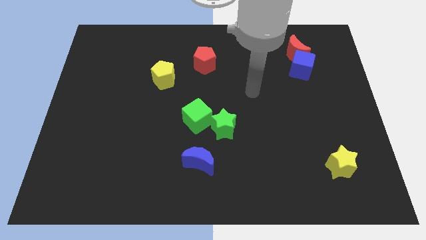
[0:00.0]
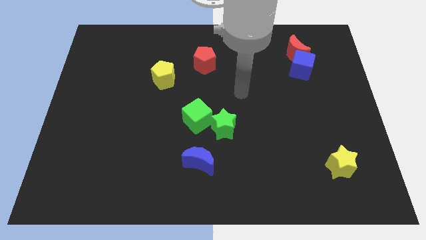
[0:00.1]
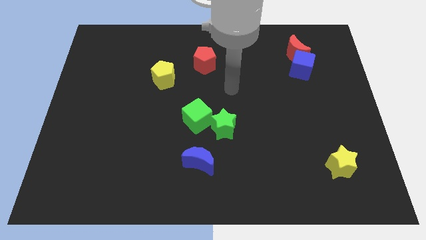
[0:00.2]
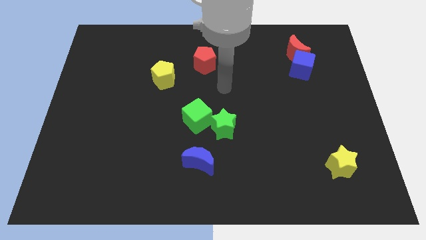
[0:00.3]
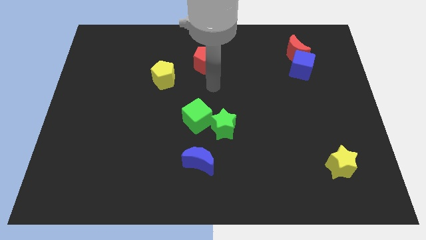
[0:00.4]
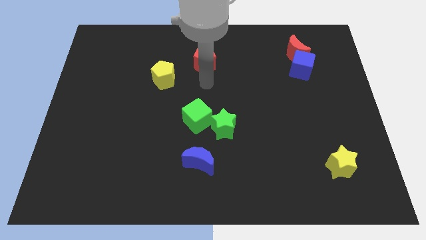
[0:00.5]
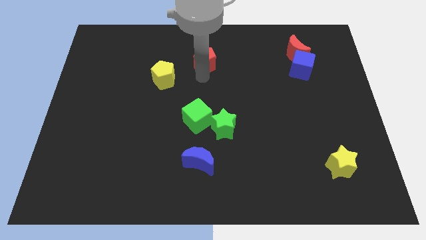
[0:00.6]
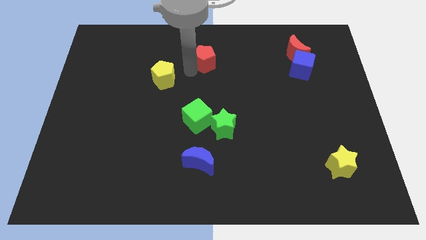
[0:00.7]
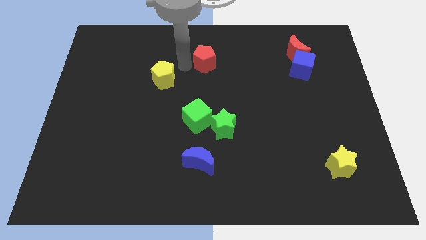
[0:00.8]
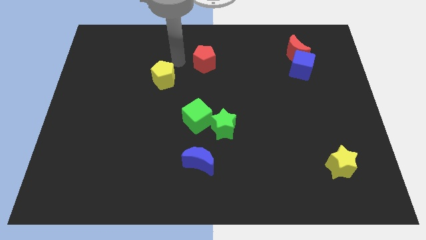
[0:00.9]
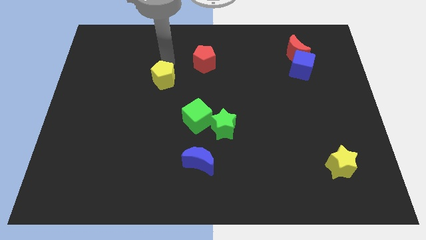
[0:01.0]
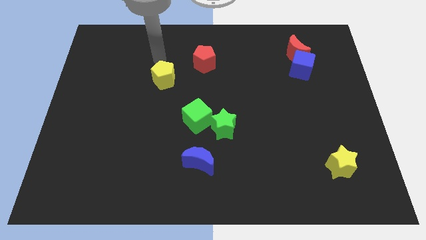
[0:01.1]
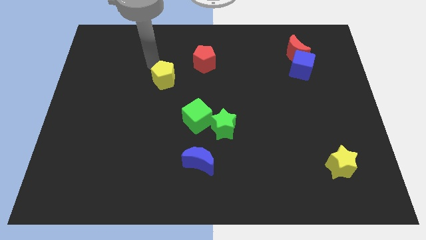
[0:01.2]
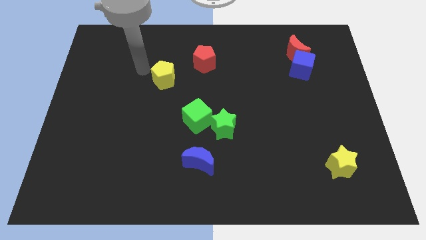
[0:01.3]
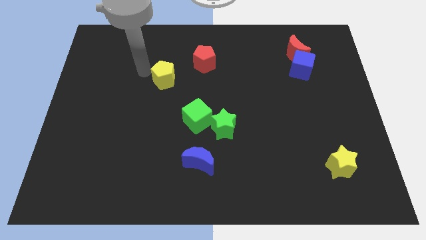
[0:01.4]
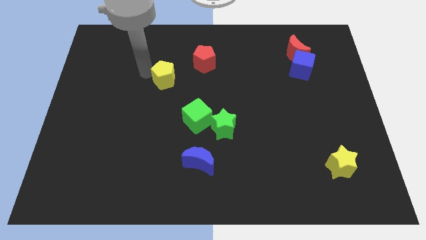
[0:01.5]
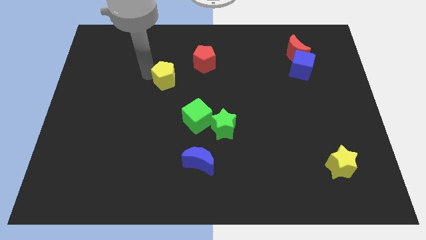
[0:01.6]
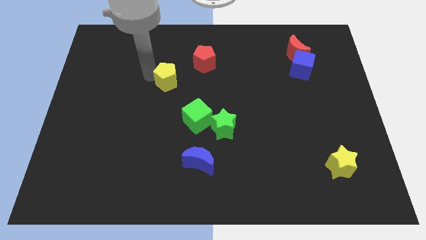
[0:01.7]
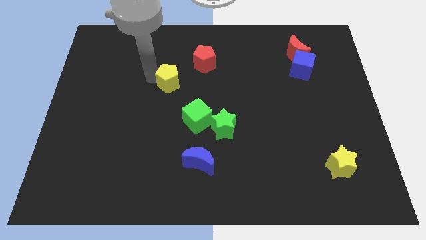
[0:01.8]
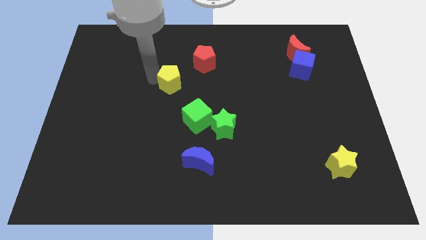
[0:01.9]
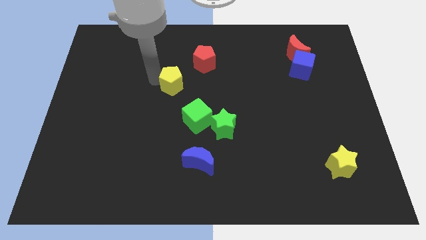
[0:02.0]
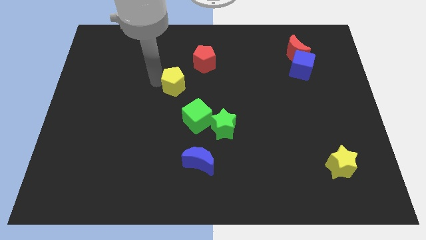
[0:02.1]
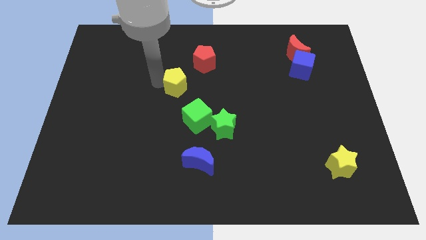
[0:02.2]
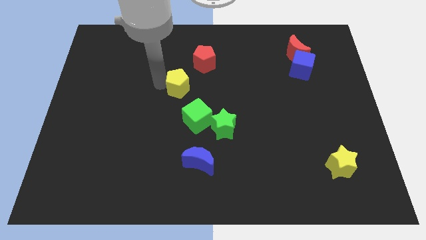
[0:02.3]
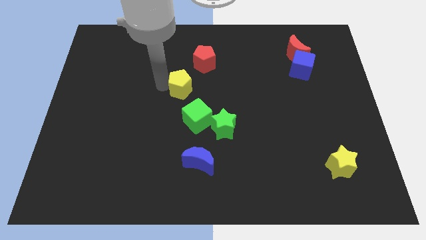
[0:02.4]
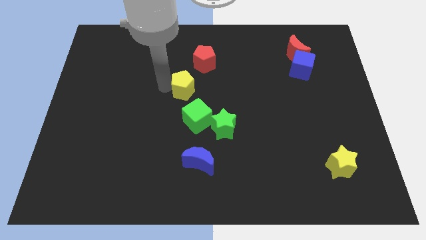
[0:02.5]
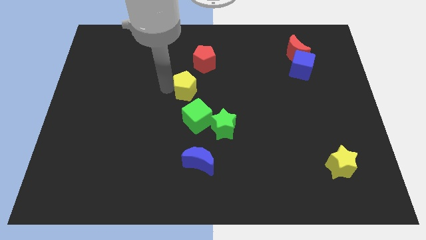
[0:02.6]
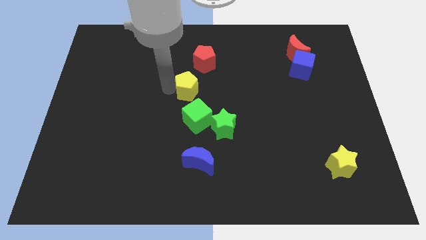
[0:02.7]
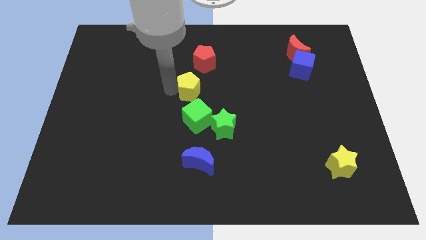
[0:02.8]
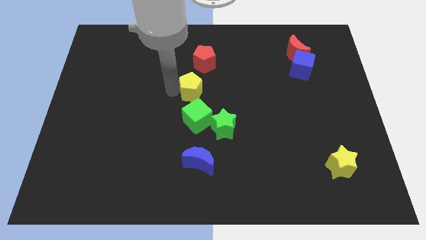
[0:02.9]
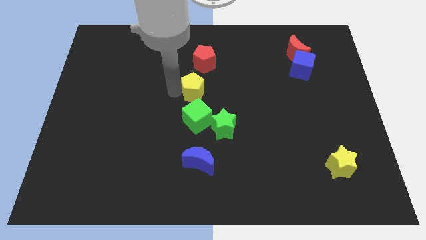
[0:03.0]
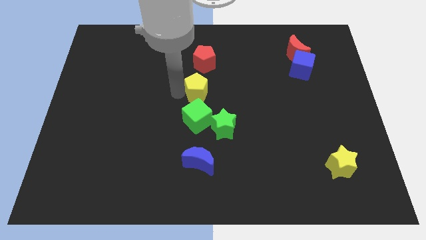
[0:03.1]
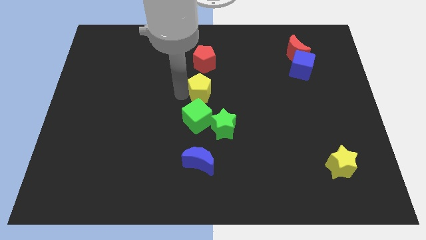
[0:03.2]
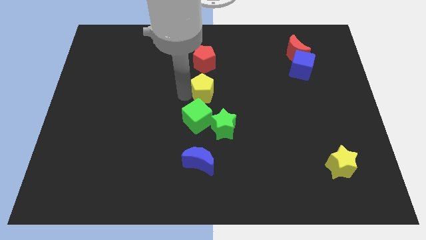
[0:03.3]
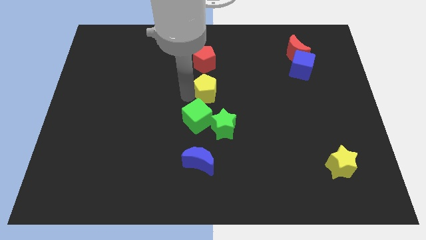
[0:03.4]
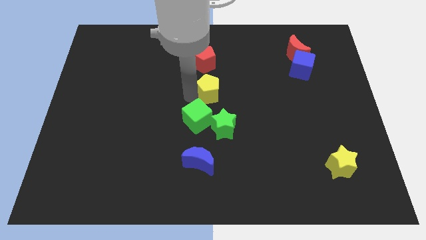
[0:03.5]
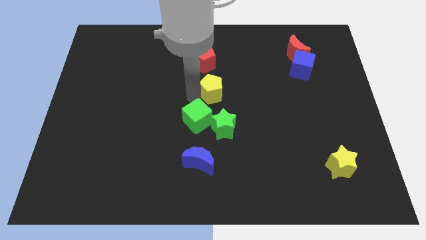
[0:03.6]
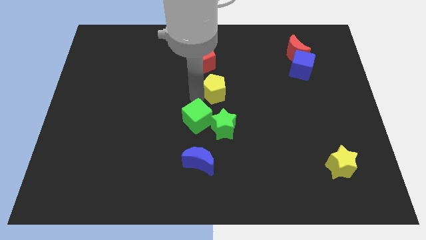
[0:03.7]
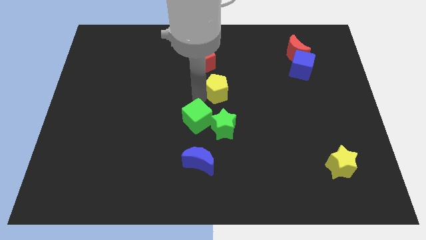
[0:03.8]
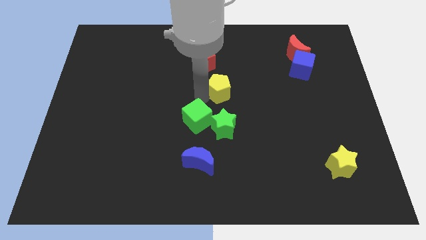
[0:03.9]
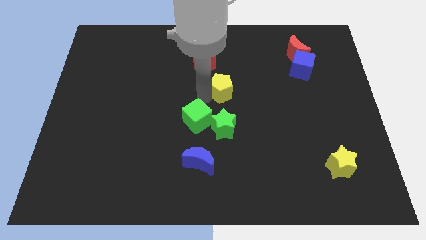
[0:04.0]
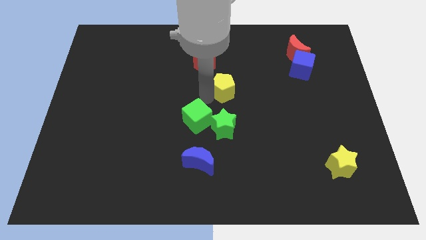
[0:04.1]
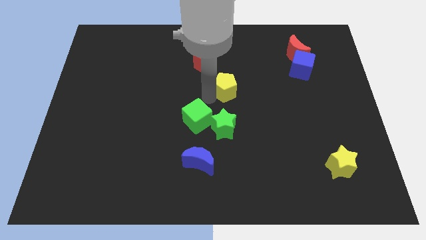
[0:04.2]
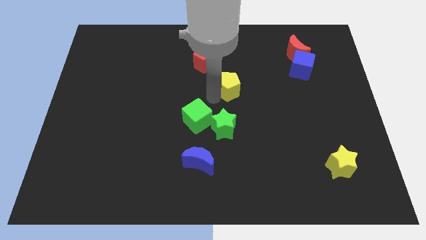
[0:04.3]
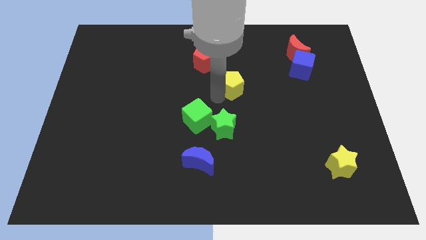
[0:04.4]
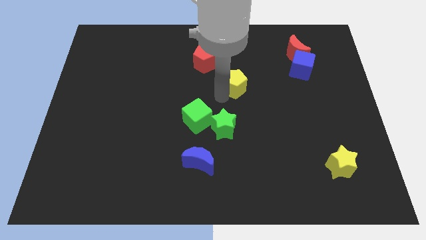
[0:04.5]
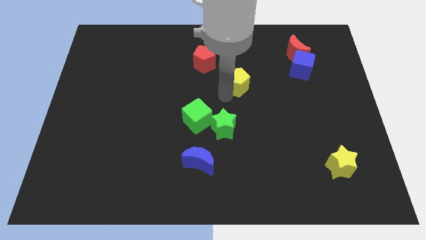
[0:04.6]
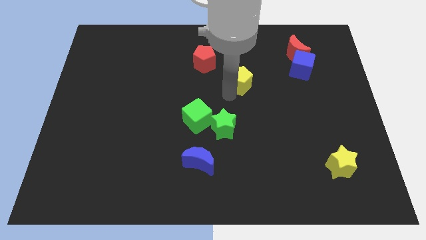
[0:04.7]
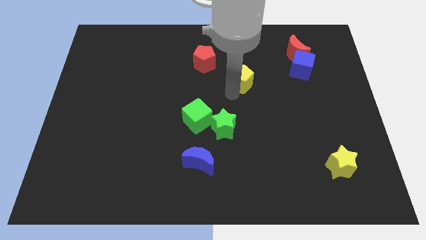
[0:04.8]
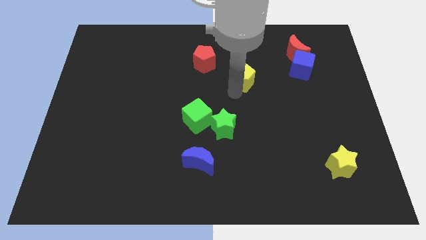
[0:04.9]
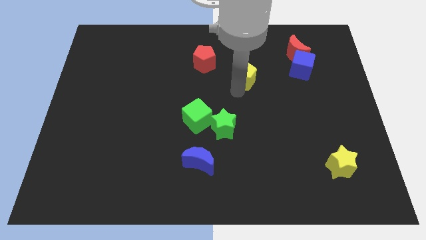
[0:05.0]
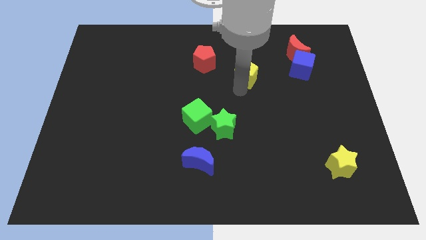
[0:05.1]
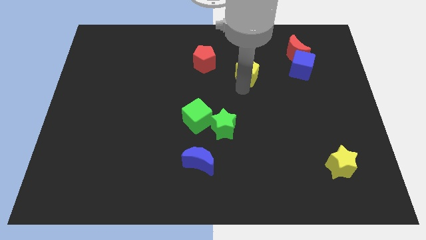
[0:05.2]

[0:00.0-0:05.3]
move the yellow pentagon just right of the red pentagon

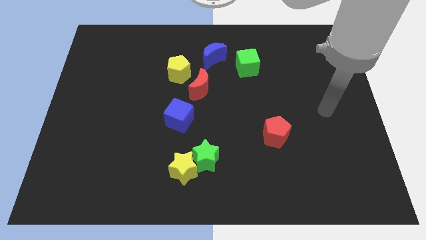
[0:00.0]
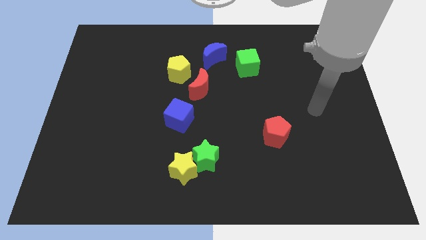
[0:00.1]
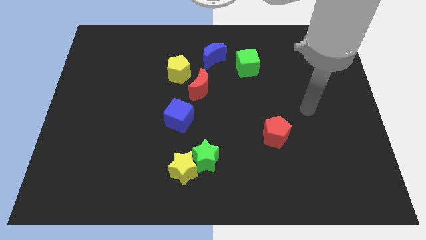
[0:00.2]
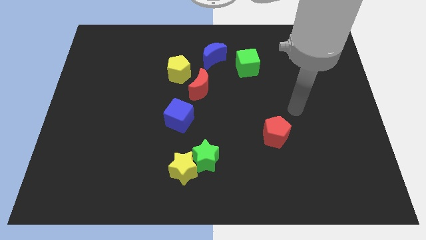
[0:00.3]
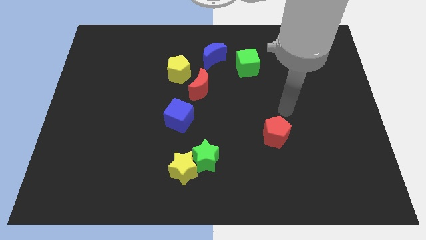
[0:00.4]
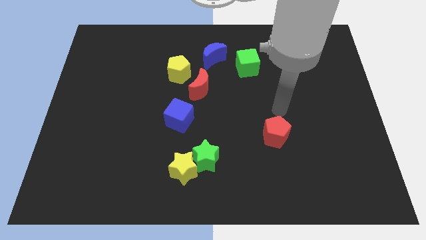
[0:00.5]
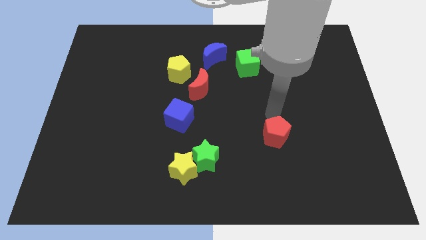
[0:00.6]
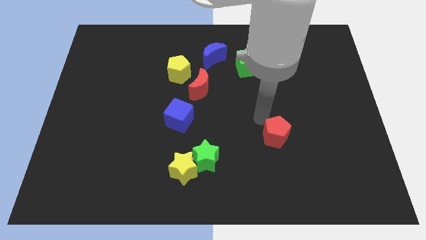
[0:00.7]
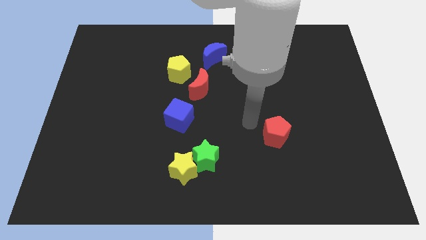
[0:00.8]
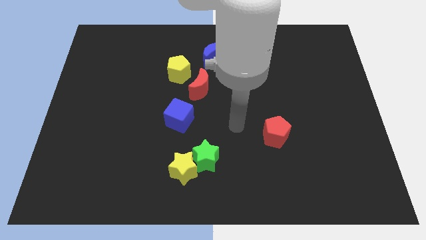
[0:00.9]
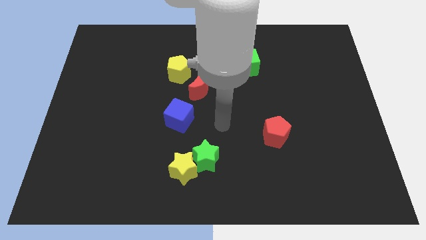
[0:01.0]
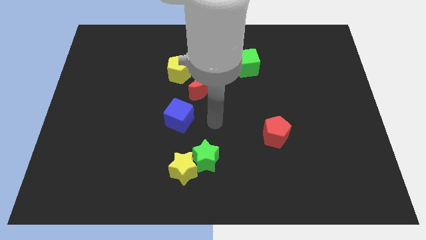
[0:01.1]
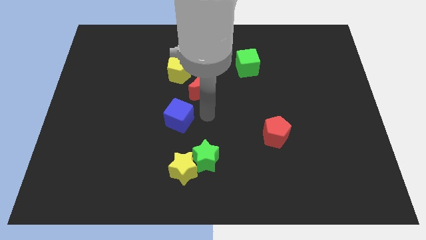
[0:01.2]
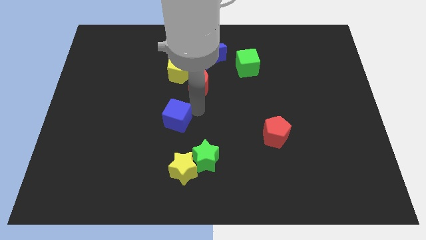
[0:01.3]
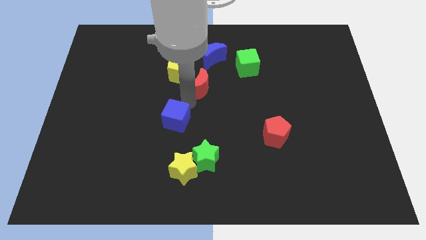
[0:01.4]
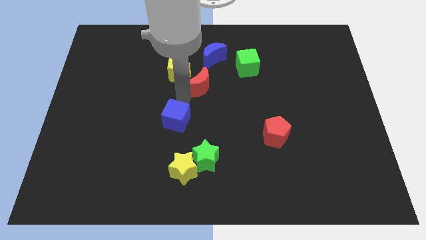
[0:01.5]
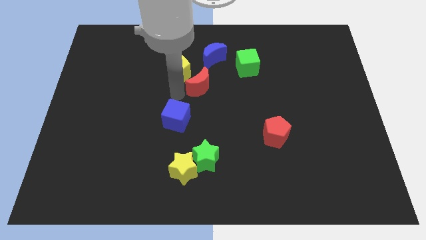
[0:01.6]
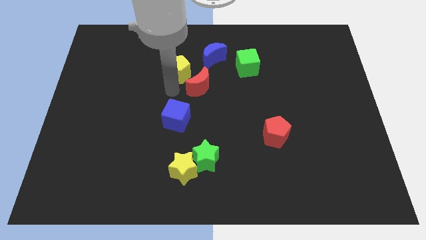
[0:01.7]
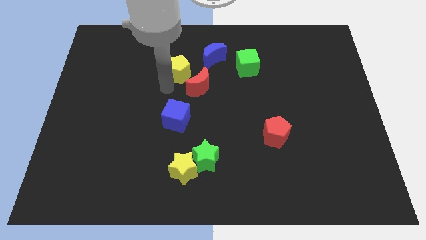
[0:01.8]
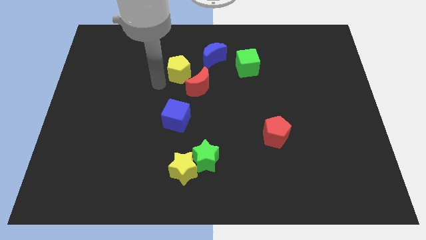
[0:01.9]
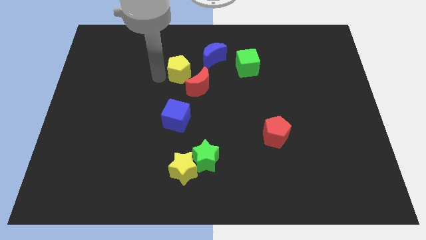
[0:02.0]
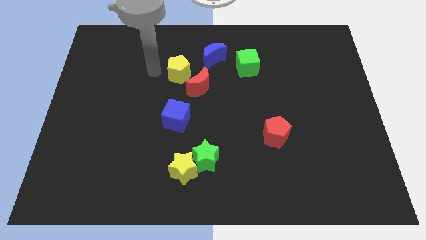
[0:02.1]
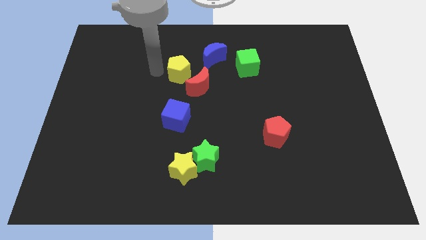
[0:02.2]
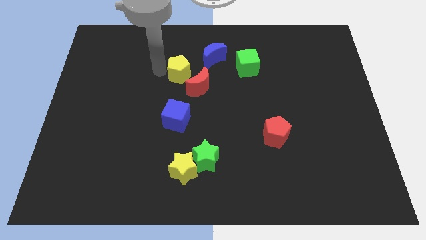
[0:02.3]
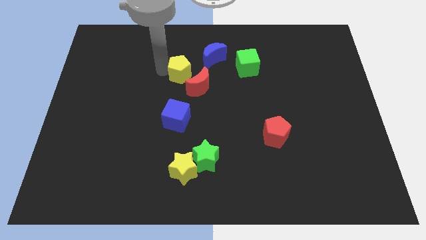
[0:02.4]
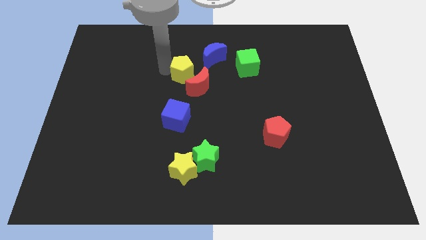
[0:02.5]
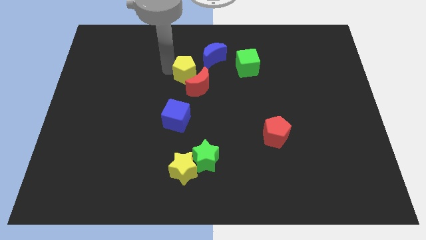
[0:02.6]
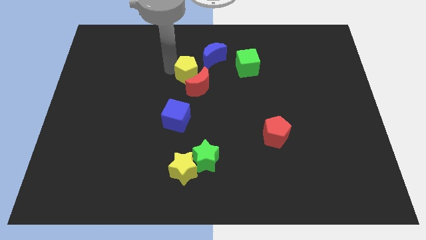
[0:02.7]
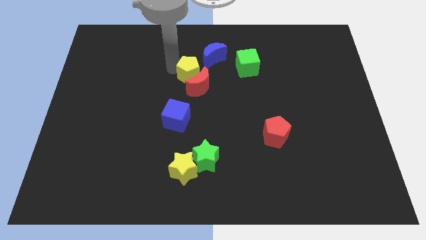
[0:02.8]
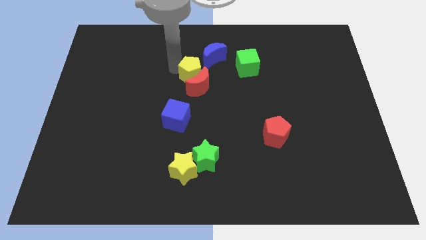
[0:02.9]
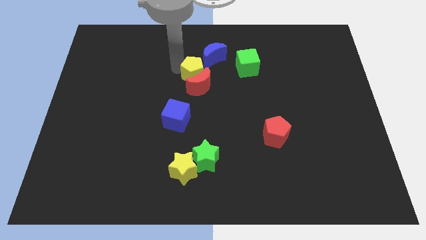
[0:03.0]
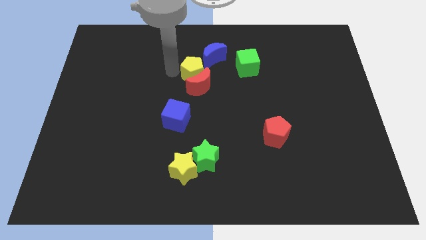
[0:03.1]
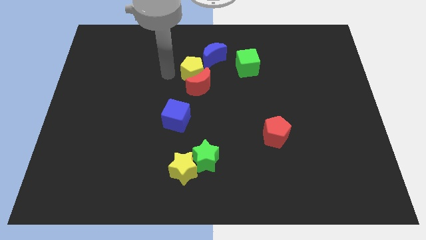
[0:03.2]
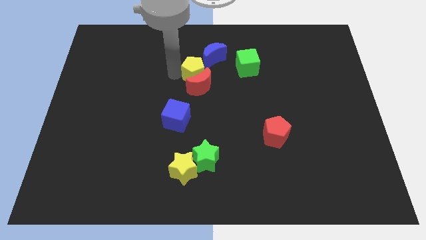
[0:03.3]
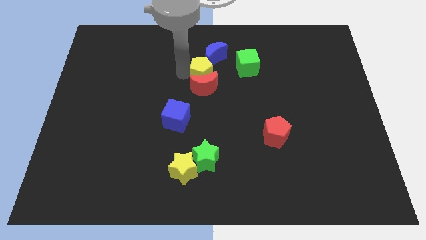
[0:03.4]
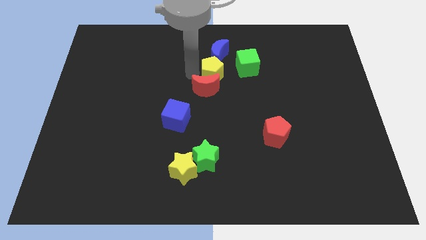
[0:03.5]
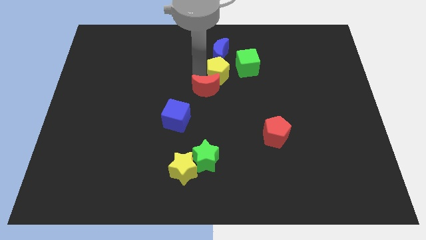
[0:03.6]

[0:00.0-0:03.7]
move the yellow pentagon to the bottom right of the blue moon
